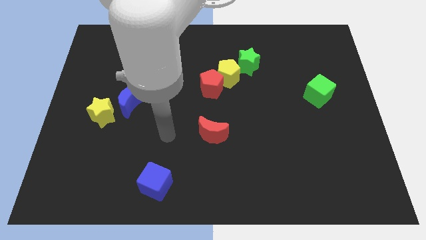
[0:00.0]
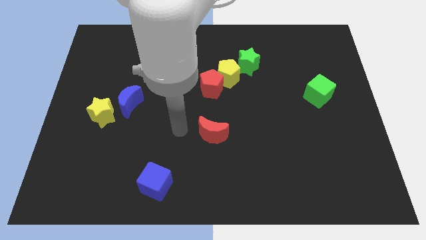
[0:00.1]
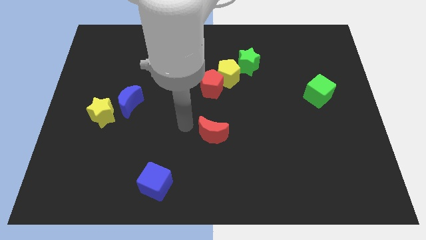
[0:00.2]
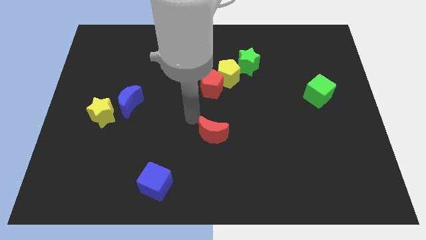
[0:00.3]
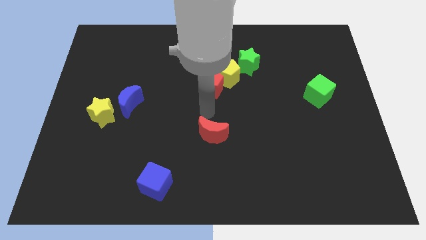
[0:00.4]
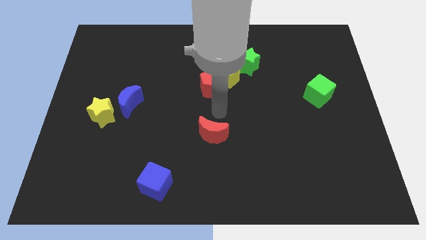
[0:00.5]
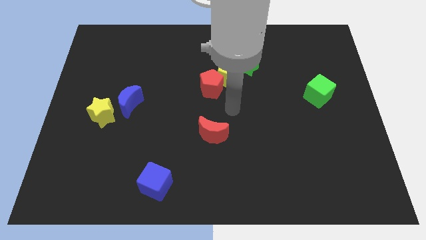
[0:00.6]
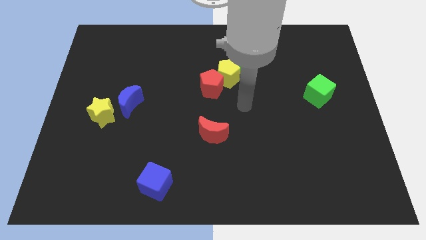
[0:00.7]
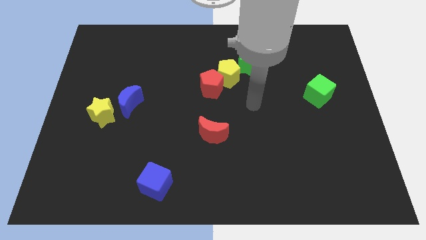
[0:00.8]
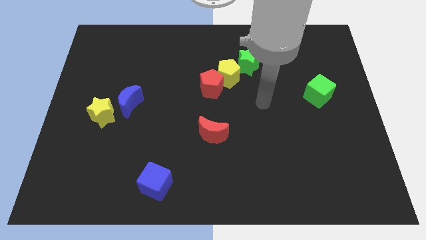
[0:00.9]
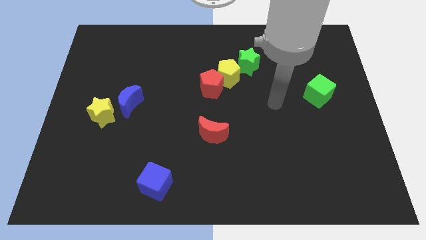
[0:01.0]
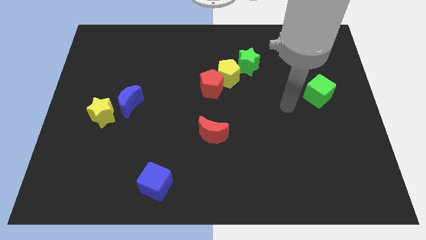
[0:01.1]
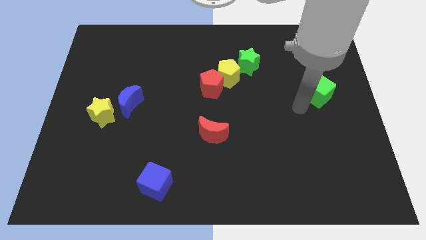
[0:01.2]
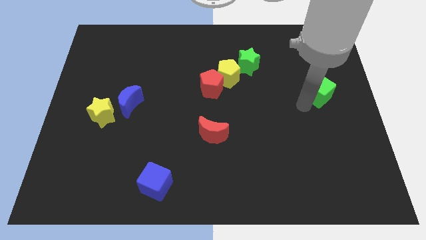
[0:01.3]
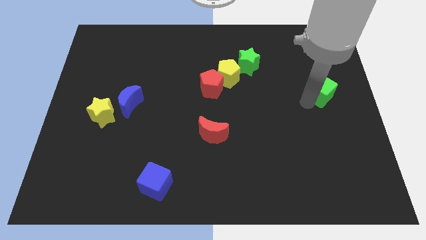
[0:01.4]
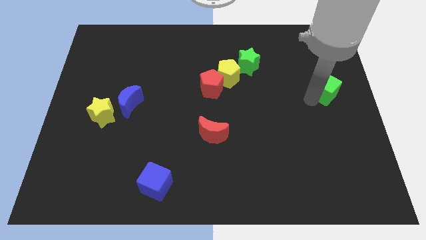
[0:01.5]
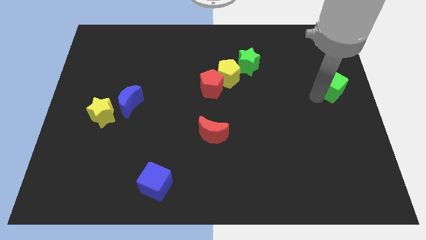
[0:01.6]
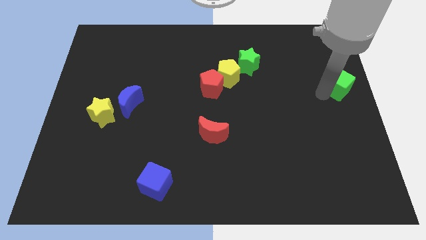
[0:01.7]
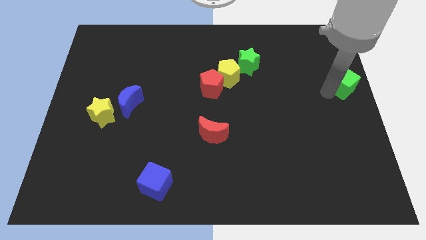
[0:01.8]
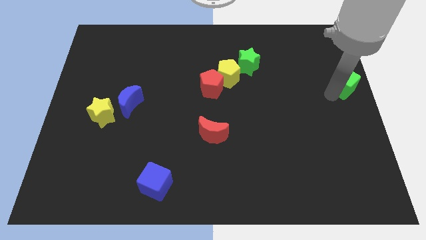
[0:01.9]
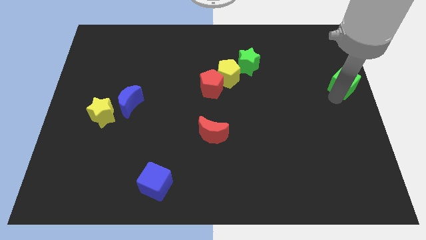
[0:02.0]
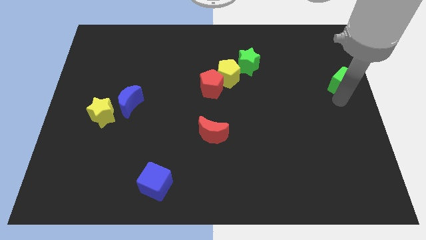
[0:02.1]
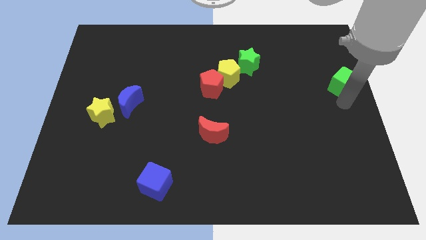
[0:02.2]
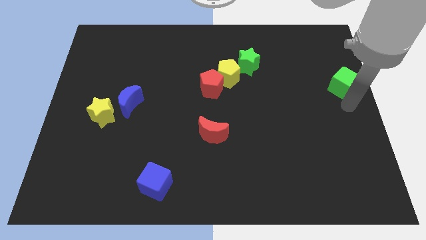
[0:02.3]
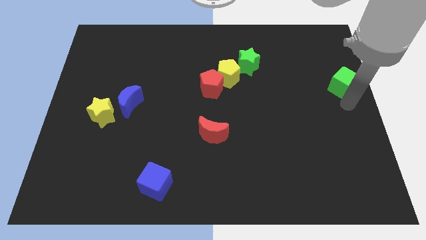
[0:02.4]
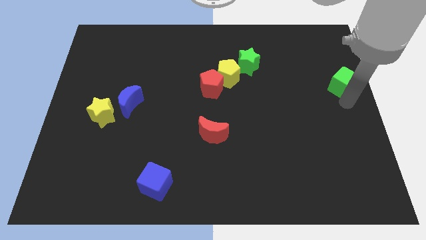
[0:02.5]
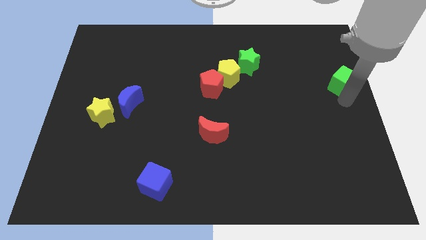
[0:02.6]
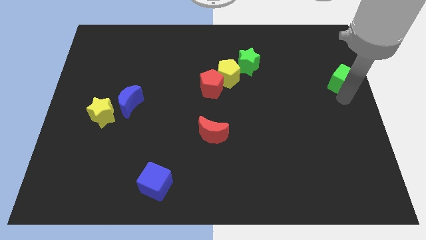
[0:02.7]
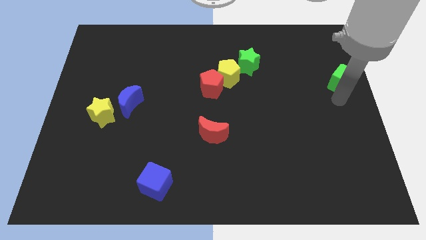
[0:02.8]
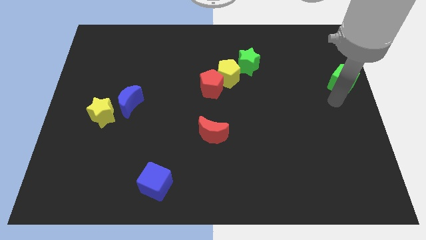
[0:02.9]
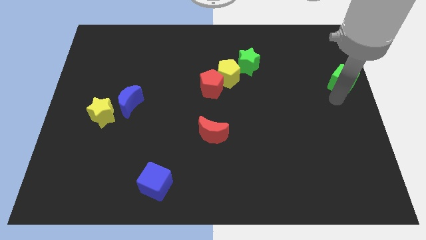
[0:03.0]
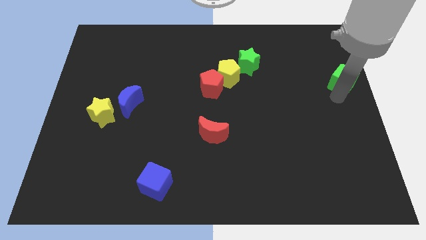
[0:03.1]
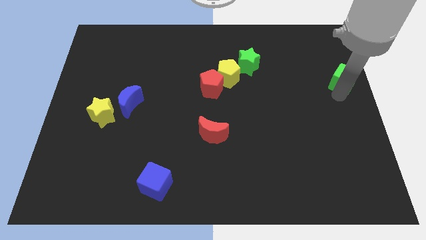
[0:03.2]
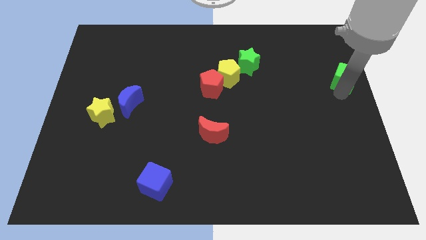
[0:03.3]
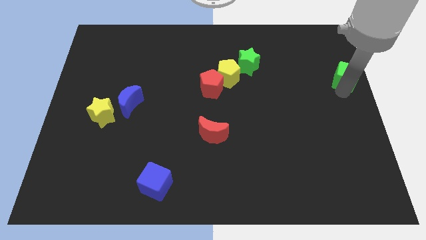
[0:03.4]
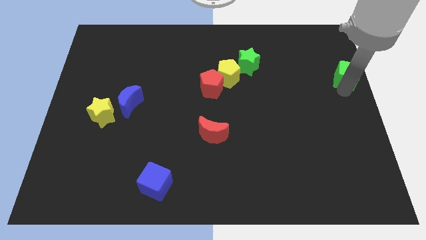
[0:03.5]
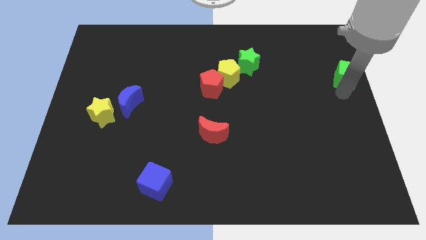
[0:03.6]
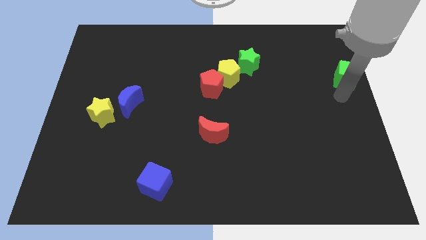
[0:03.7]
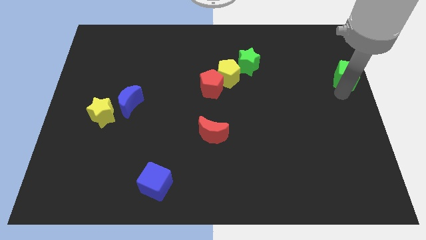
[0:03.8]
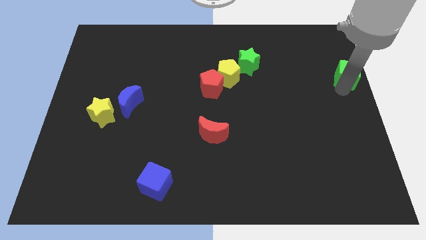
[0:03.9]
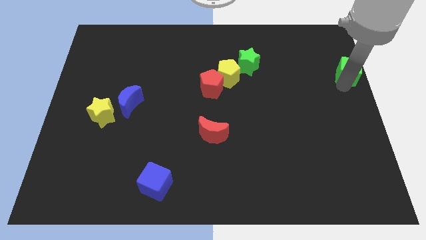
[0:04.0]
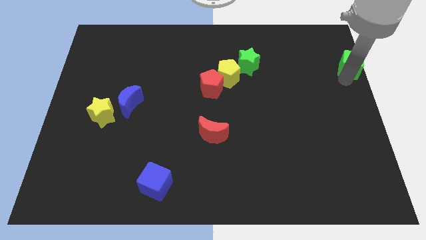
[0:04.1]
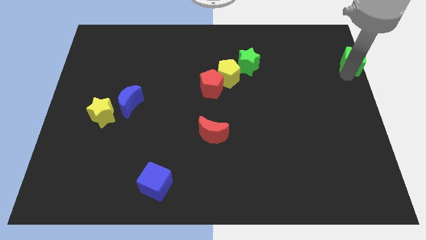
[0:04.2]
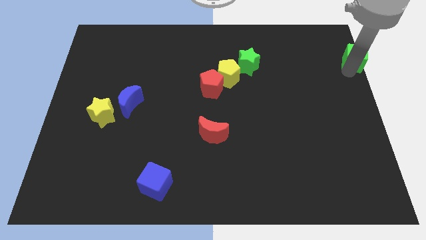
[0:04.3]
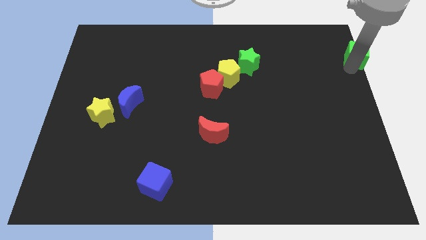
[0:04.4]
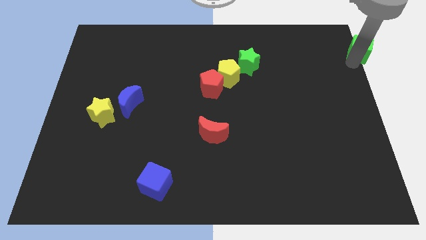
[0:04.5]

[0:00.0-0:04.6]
push the green cube to the upper right corner

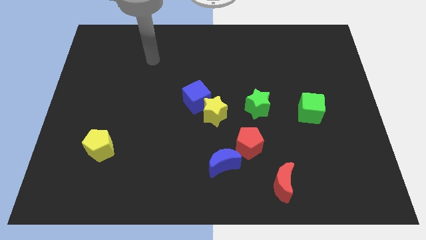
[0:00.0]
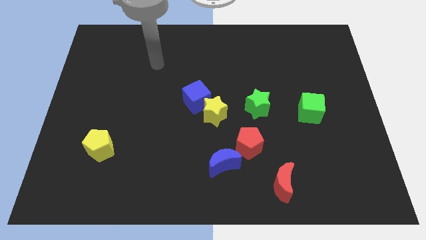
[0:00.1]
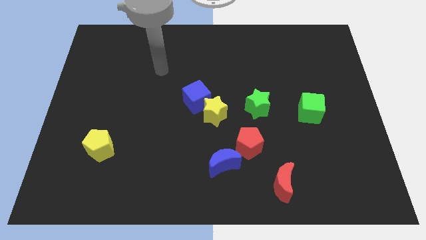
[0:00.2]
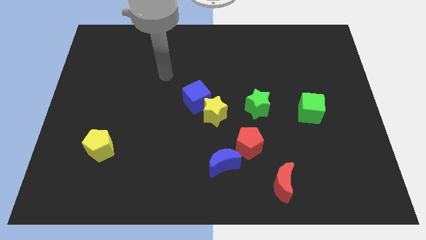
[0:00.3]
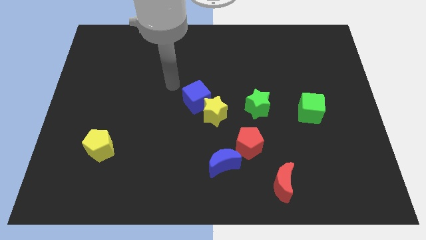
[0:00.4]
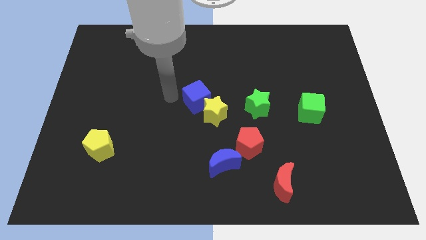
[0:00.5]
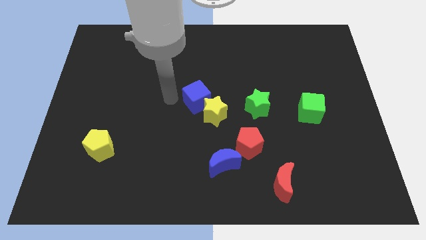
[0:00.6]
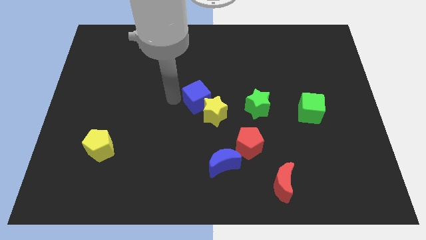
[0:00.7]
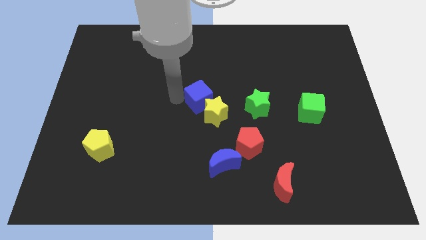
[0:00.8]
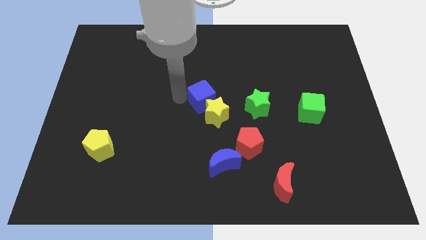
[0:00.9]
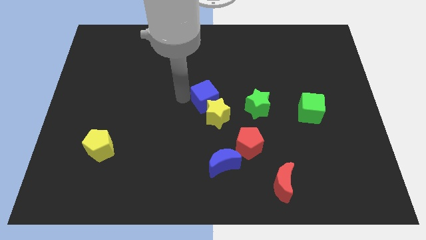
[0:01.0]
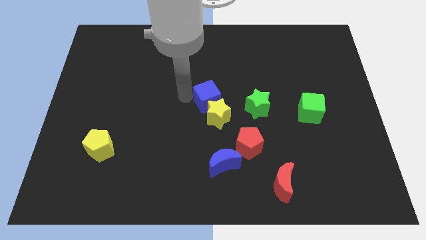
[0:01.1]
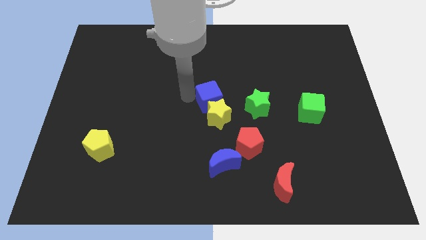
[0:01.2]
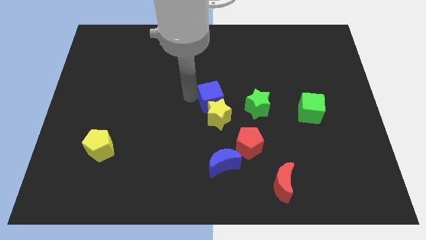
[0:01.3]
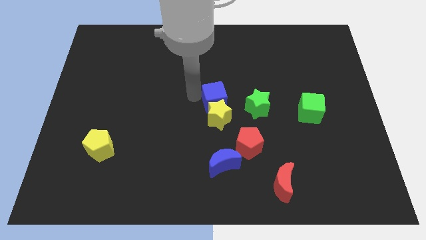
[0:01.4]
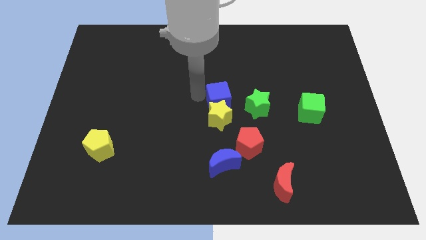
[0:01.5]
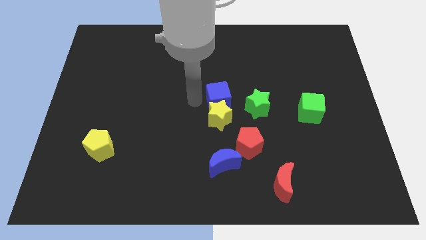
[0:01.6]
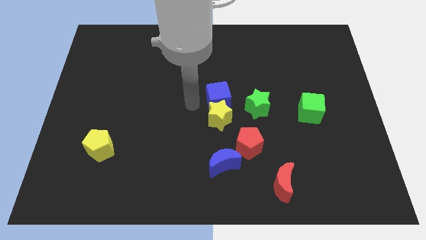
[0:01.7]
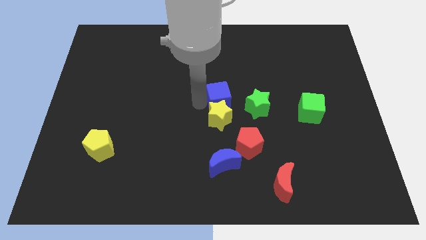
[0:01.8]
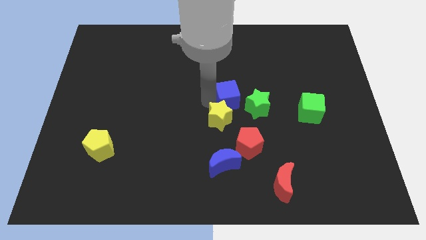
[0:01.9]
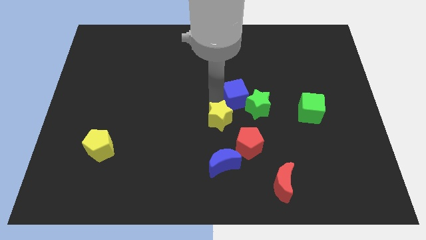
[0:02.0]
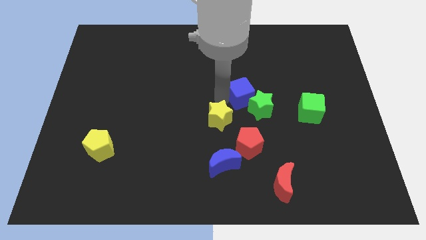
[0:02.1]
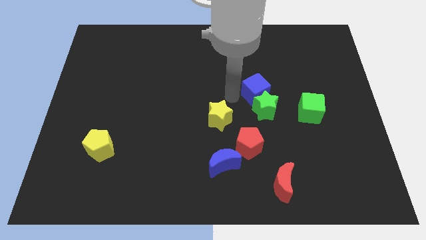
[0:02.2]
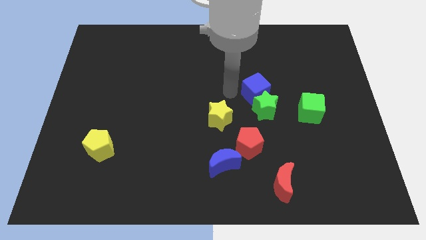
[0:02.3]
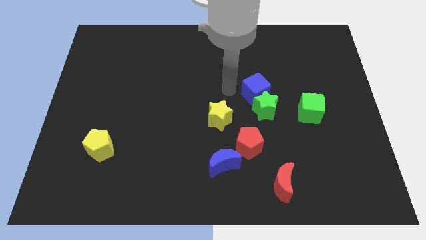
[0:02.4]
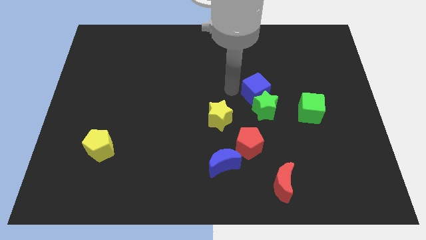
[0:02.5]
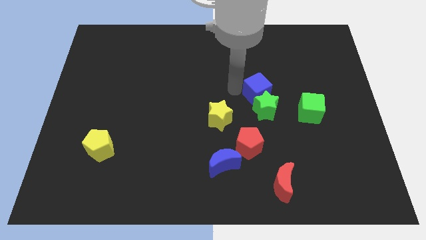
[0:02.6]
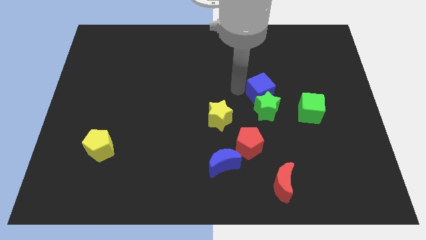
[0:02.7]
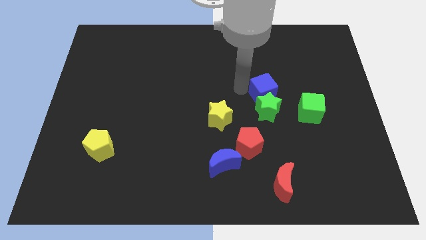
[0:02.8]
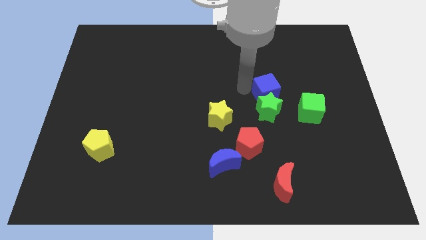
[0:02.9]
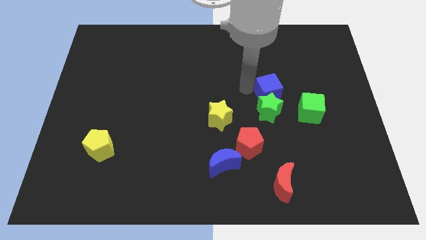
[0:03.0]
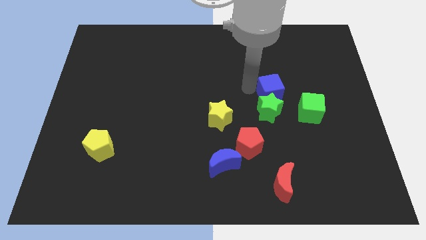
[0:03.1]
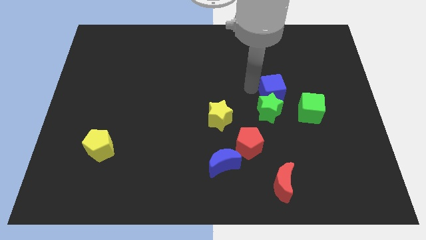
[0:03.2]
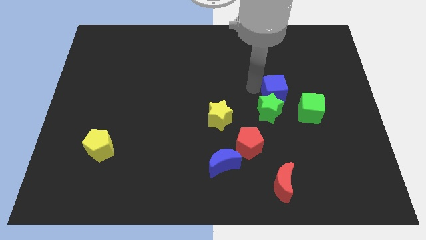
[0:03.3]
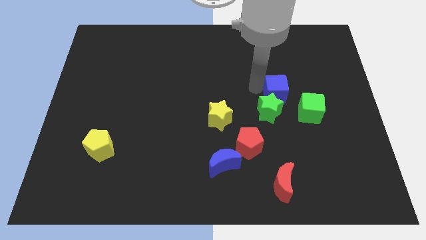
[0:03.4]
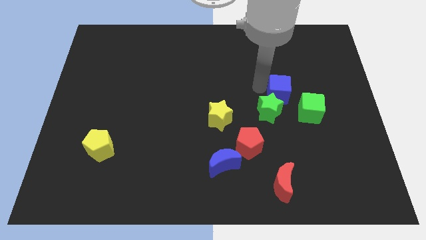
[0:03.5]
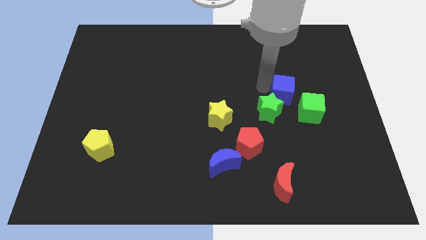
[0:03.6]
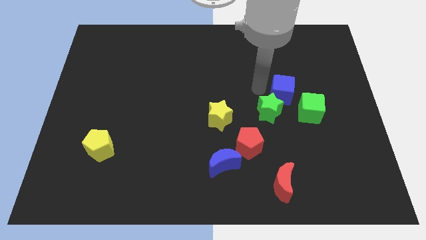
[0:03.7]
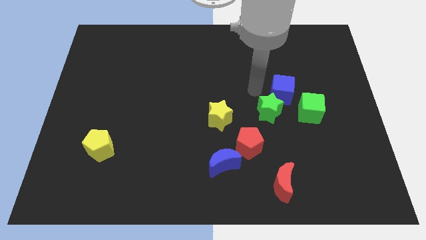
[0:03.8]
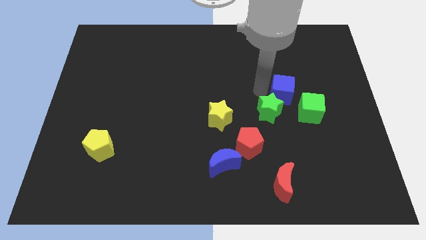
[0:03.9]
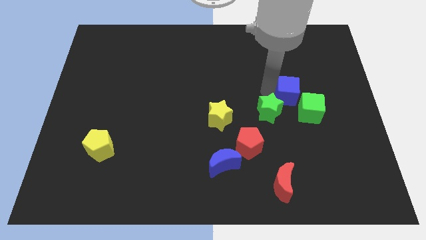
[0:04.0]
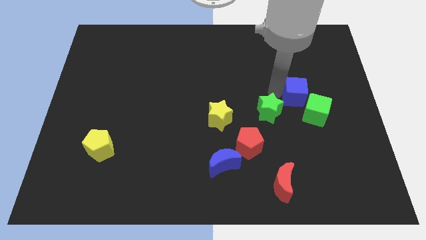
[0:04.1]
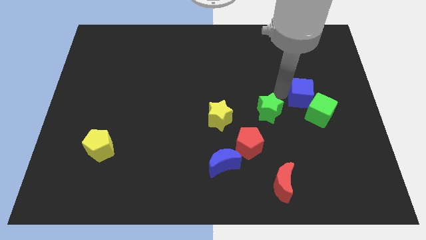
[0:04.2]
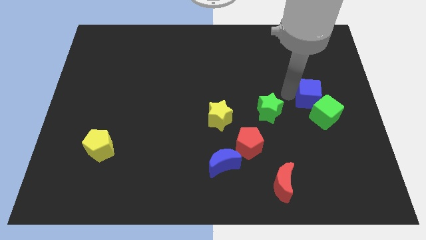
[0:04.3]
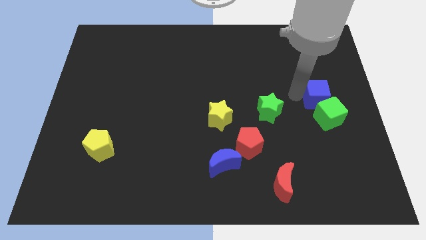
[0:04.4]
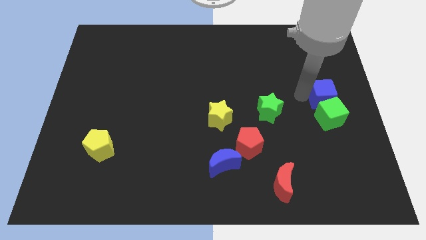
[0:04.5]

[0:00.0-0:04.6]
push the blue cube to the right side of the board
